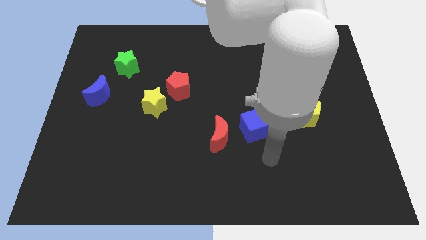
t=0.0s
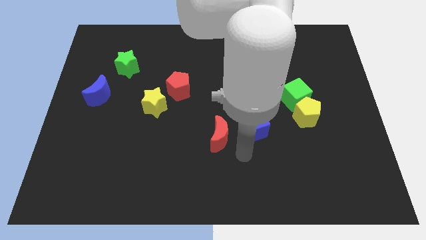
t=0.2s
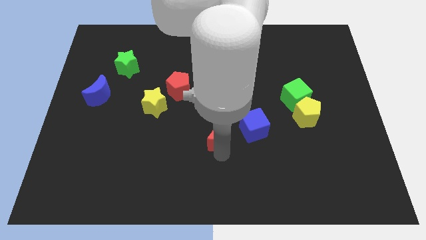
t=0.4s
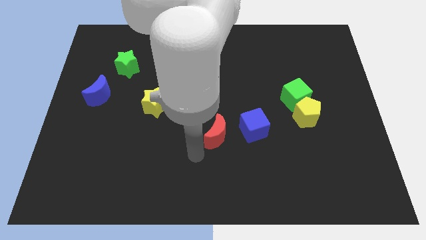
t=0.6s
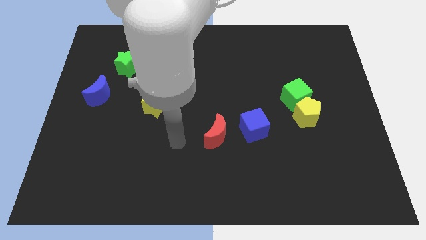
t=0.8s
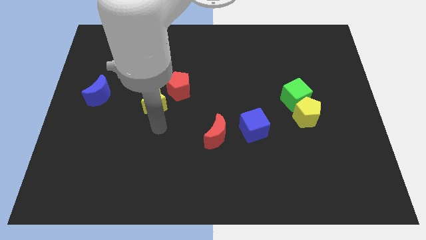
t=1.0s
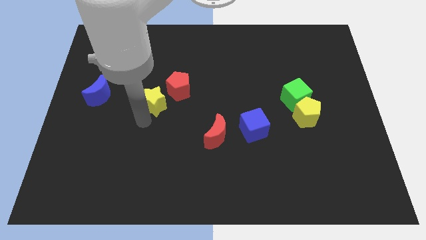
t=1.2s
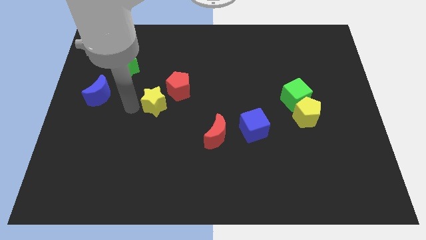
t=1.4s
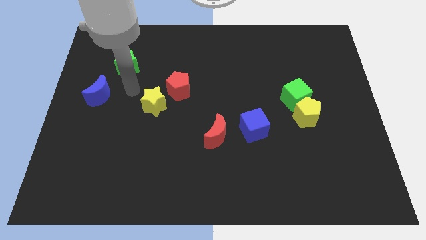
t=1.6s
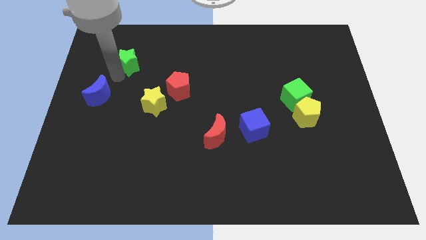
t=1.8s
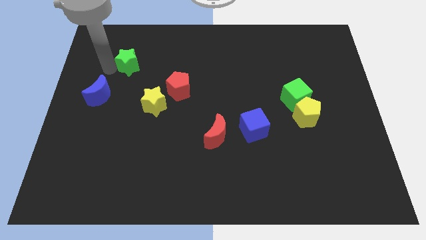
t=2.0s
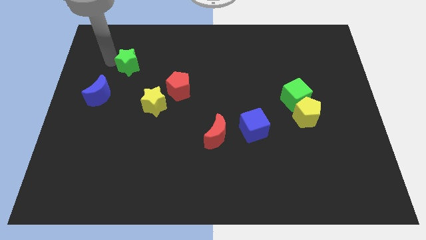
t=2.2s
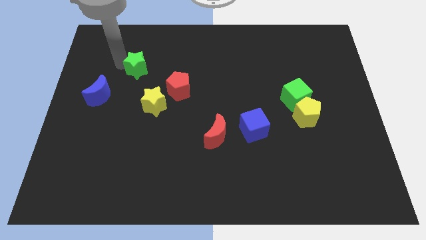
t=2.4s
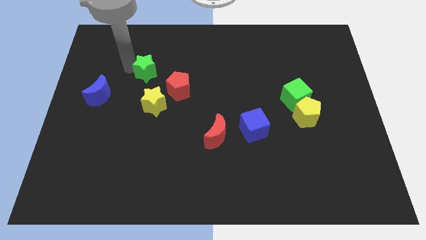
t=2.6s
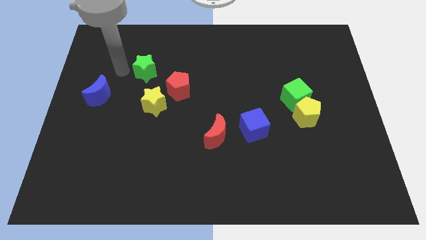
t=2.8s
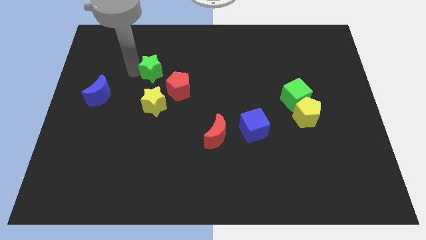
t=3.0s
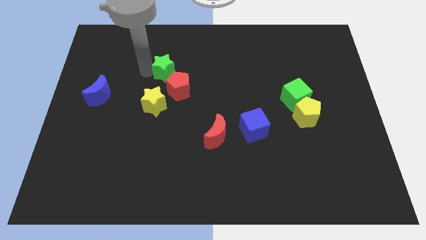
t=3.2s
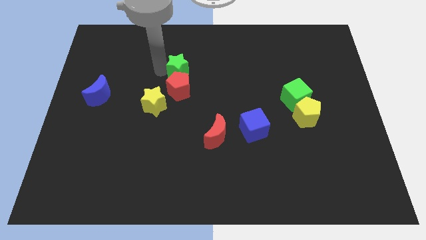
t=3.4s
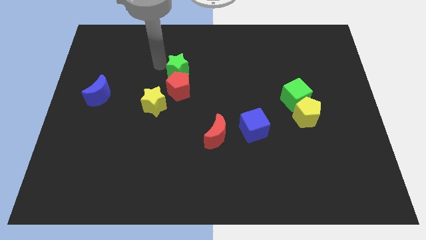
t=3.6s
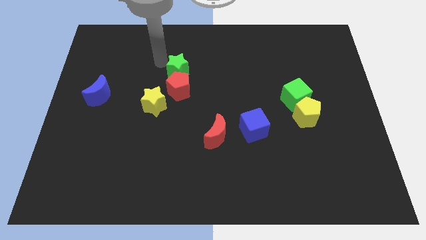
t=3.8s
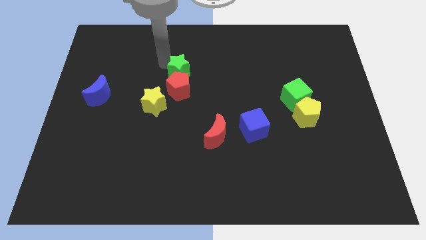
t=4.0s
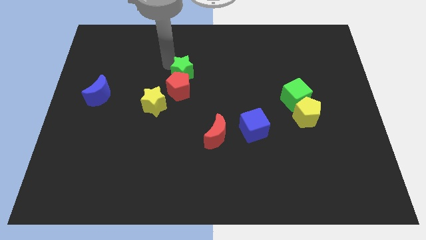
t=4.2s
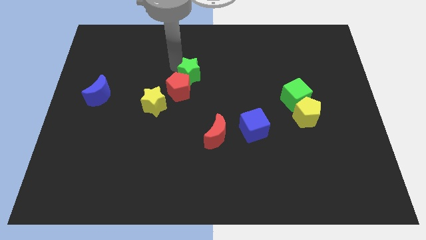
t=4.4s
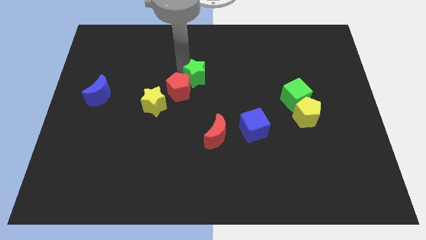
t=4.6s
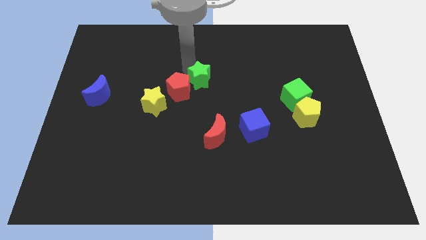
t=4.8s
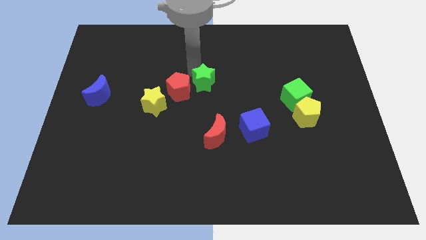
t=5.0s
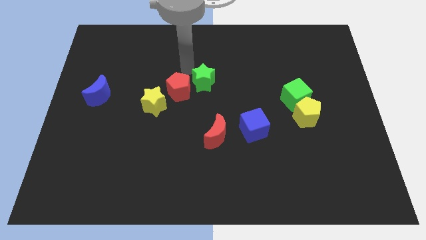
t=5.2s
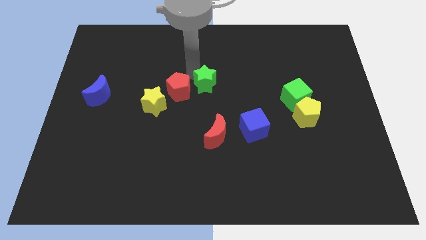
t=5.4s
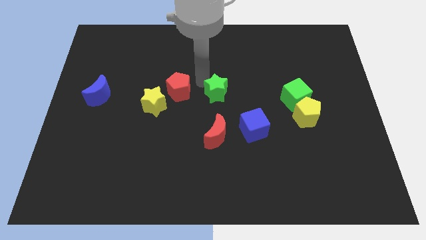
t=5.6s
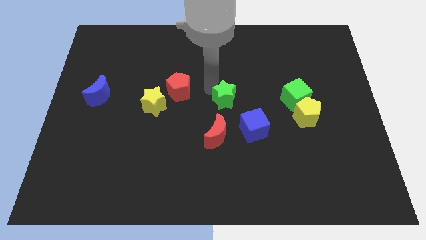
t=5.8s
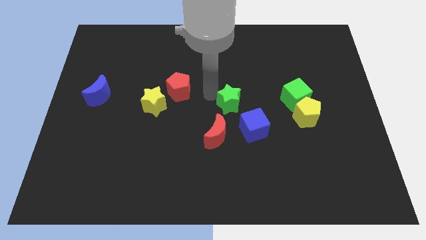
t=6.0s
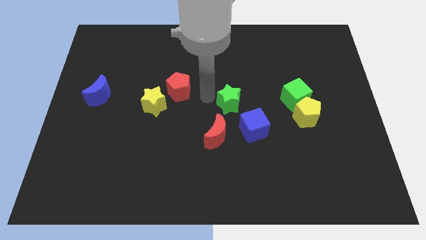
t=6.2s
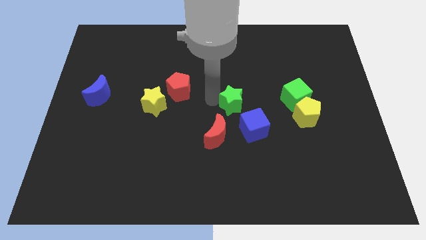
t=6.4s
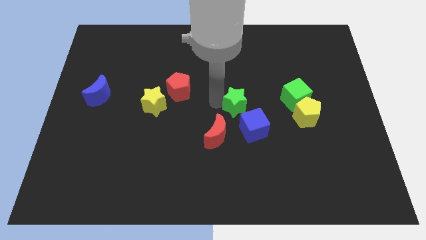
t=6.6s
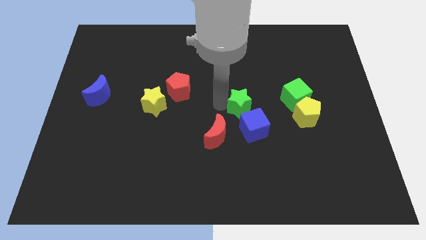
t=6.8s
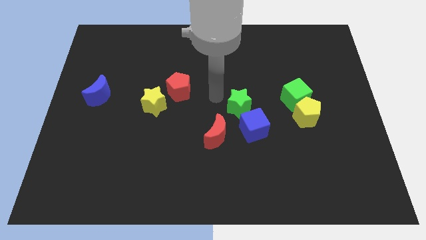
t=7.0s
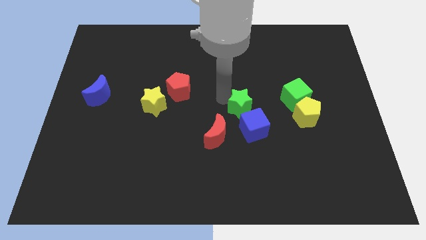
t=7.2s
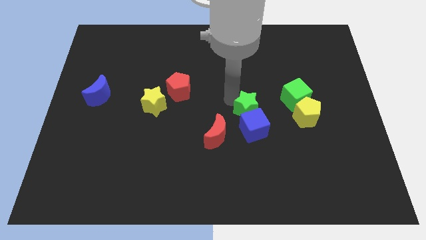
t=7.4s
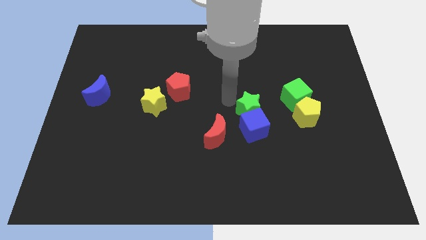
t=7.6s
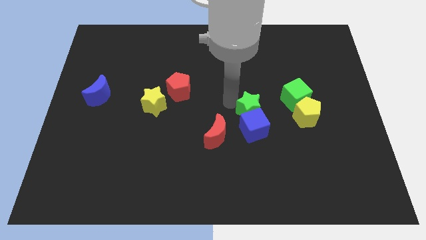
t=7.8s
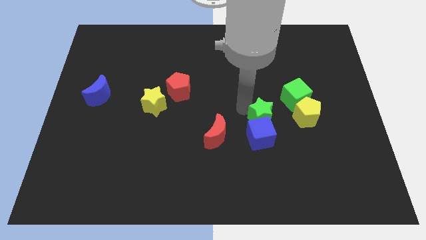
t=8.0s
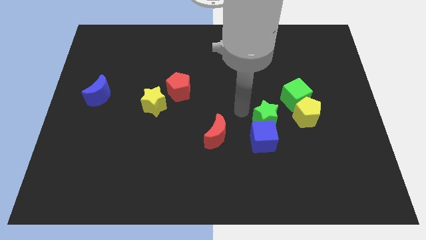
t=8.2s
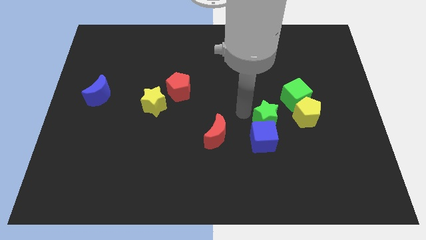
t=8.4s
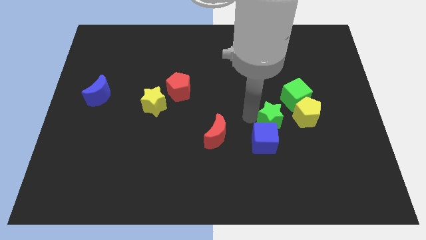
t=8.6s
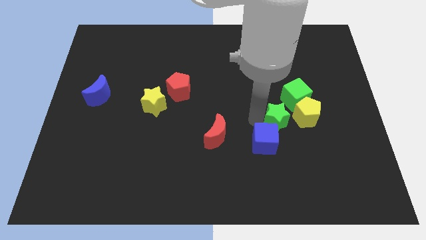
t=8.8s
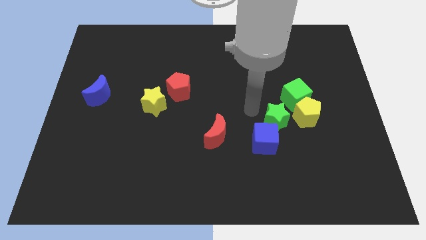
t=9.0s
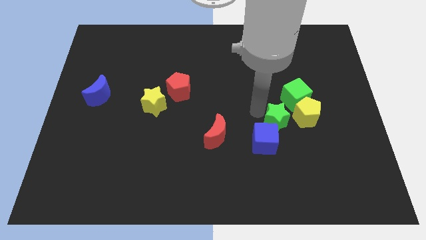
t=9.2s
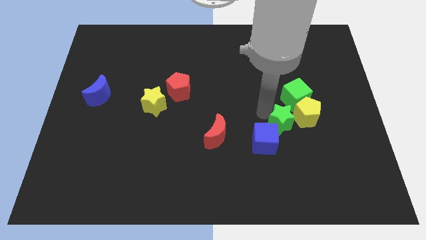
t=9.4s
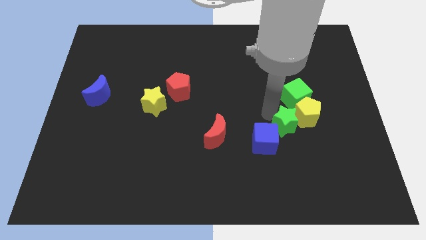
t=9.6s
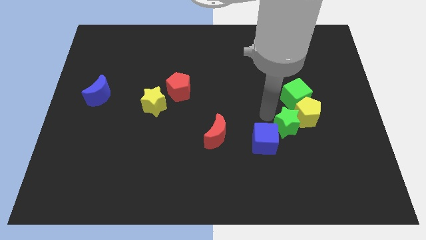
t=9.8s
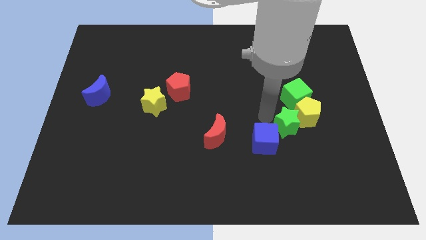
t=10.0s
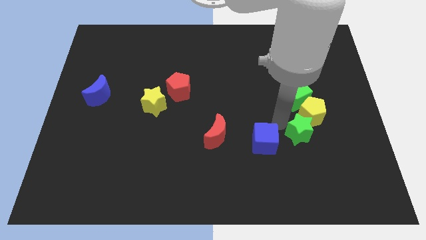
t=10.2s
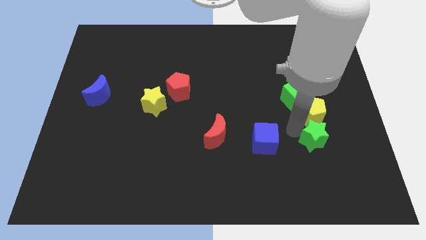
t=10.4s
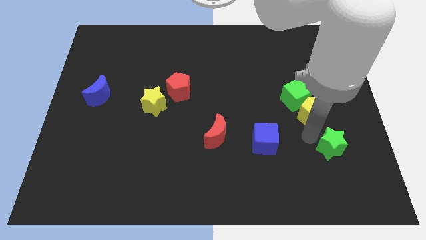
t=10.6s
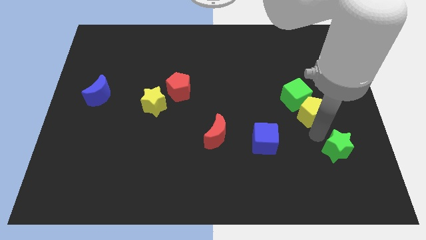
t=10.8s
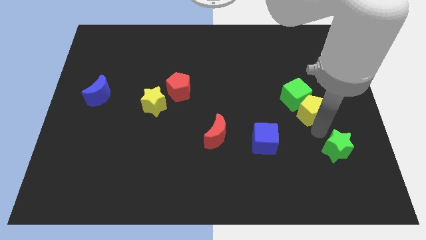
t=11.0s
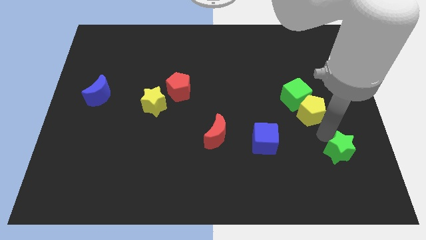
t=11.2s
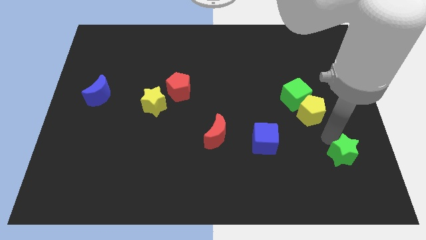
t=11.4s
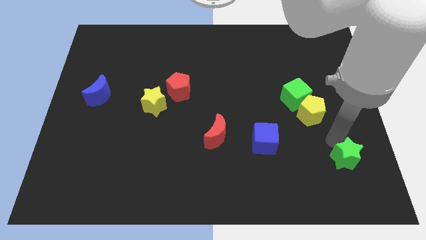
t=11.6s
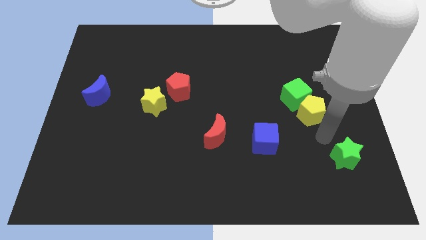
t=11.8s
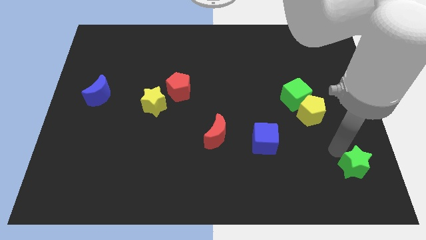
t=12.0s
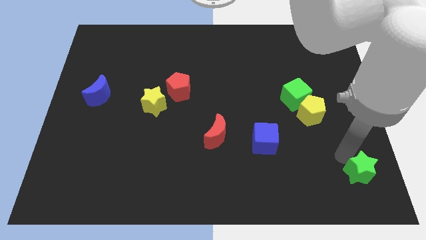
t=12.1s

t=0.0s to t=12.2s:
push the green star to the bottom right corner

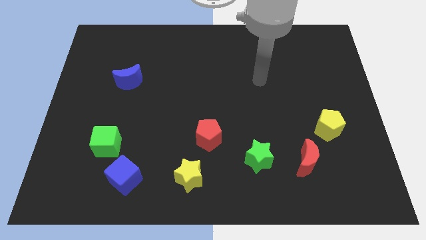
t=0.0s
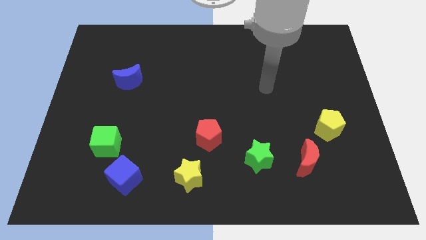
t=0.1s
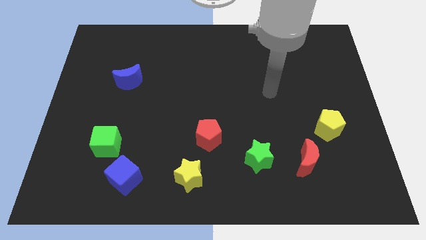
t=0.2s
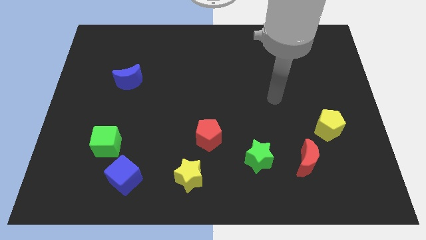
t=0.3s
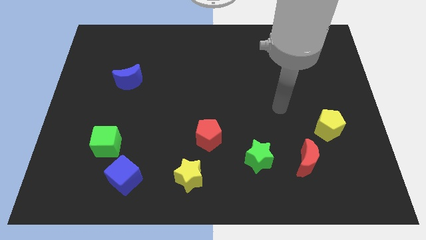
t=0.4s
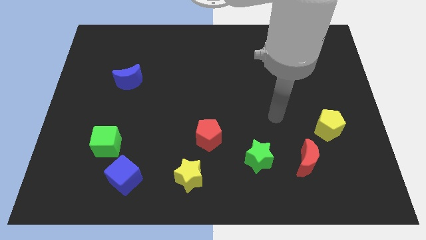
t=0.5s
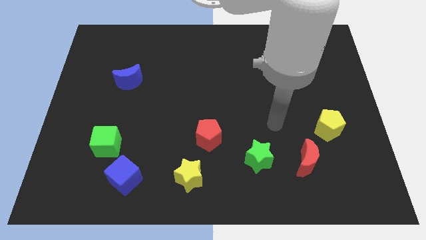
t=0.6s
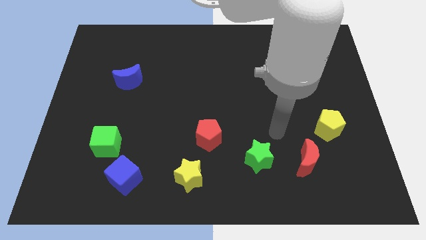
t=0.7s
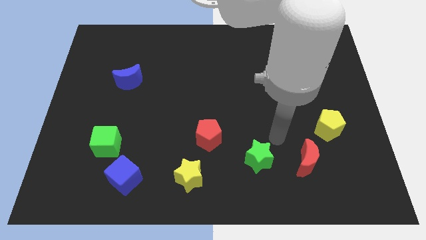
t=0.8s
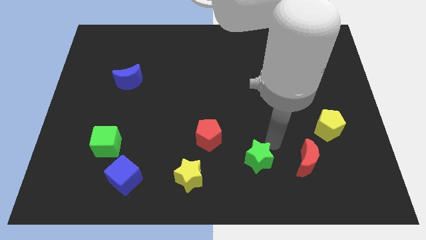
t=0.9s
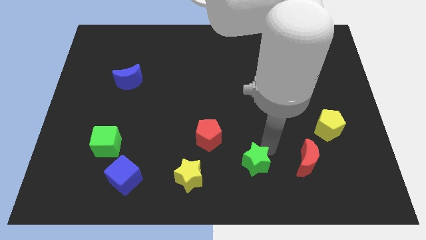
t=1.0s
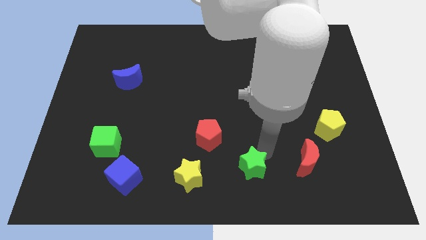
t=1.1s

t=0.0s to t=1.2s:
put the green star to the bottom side
